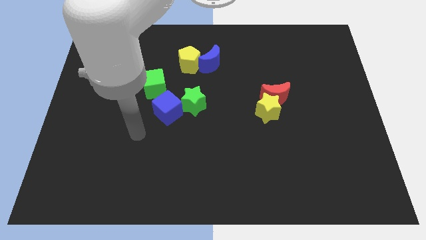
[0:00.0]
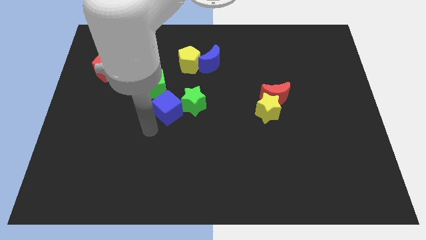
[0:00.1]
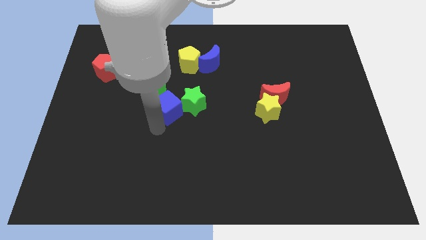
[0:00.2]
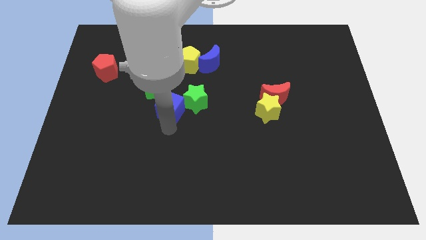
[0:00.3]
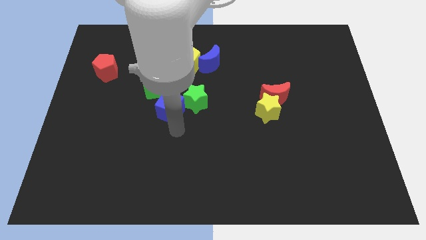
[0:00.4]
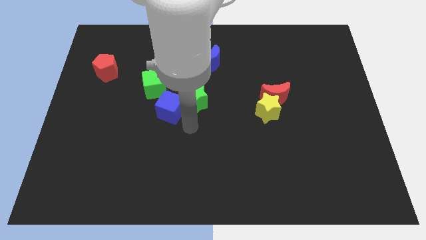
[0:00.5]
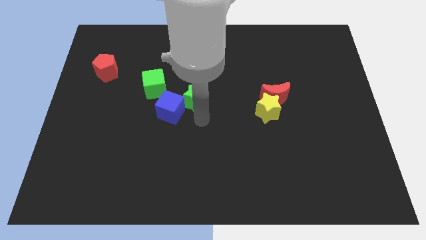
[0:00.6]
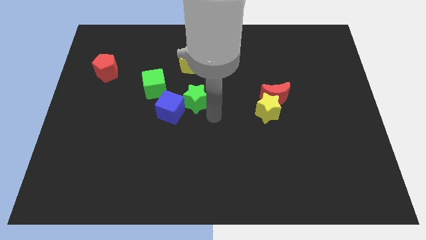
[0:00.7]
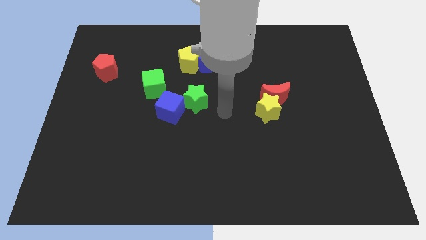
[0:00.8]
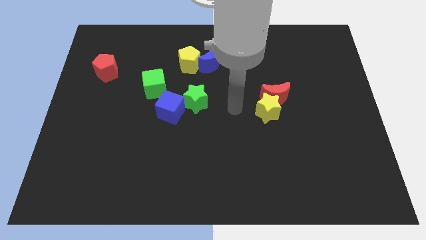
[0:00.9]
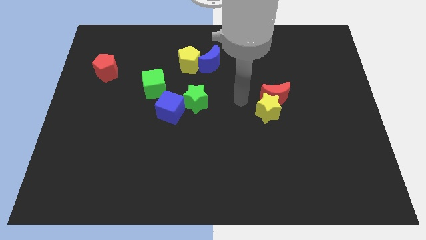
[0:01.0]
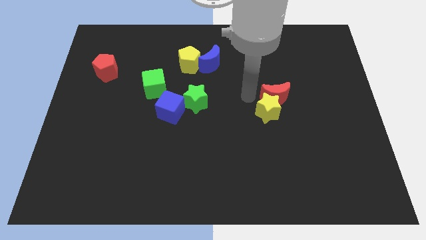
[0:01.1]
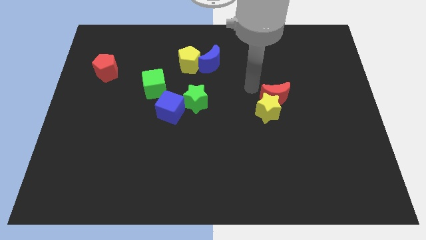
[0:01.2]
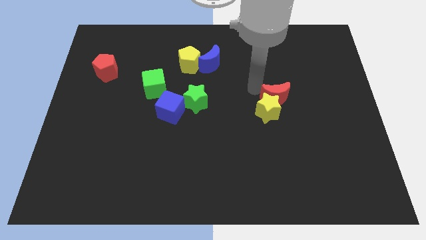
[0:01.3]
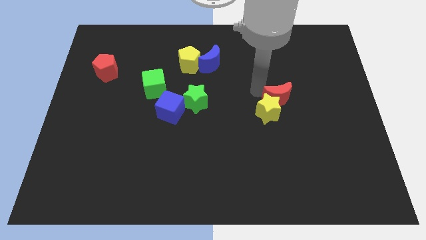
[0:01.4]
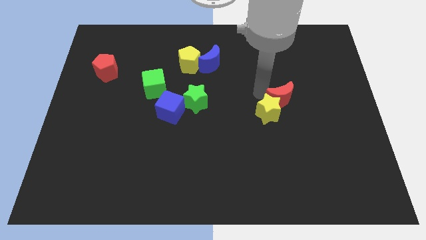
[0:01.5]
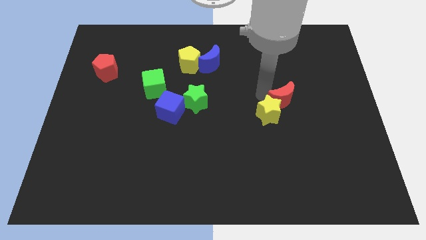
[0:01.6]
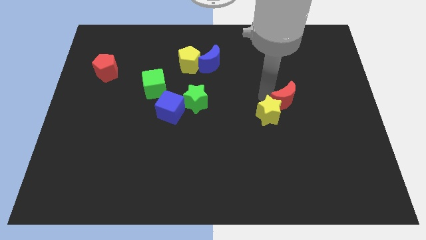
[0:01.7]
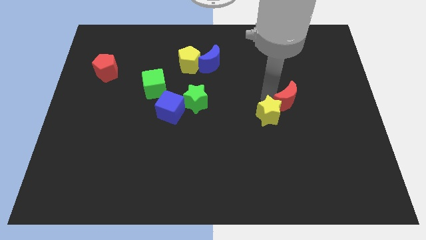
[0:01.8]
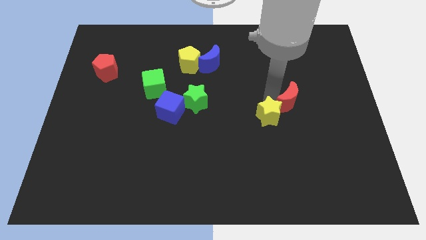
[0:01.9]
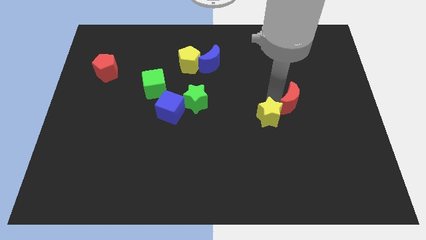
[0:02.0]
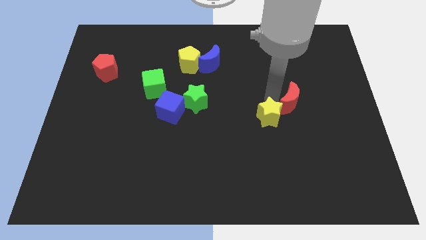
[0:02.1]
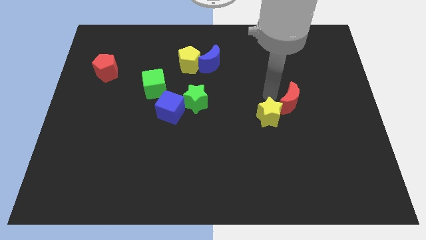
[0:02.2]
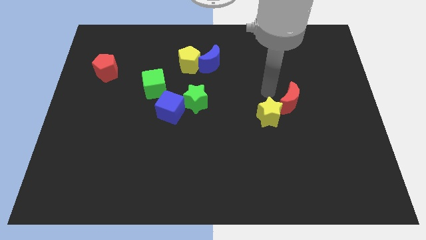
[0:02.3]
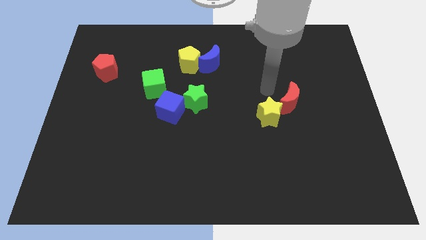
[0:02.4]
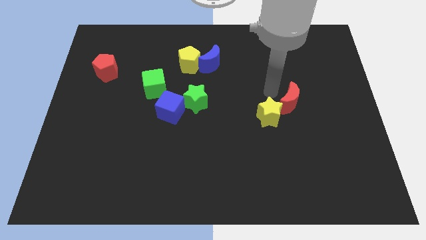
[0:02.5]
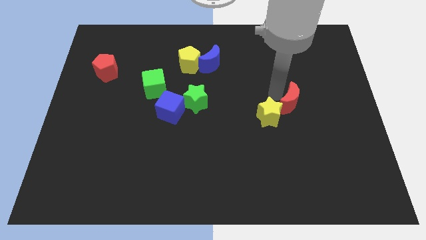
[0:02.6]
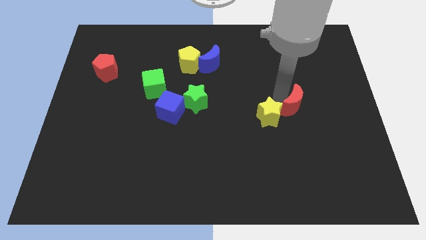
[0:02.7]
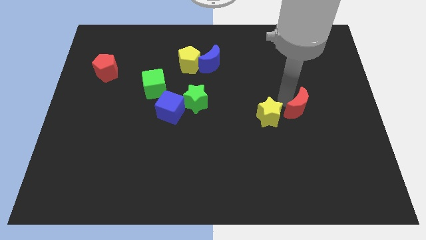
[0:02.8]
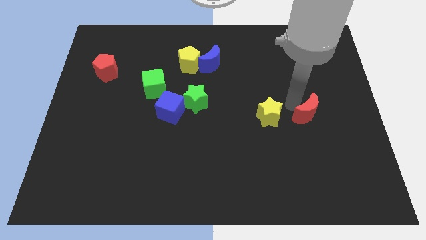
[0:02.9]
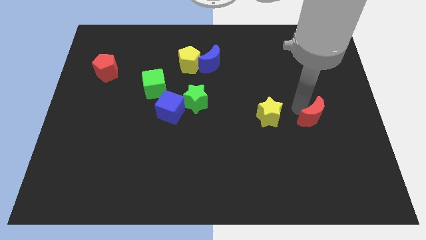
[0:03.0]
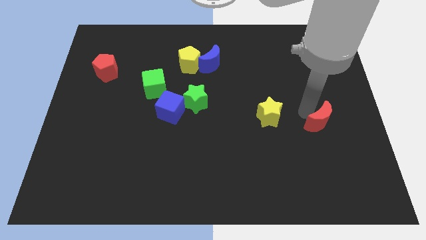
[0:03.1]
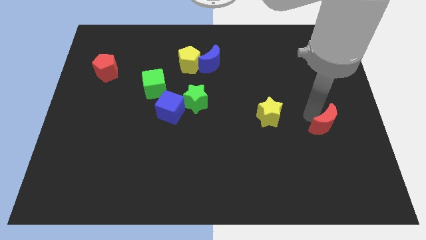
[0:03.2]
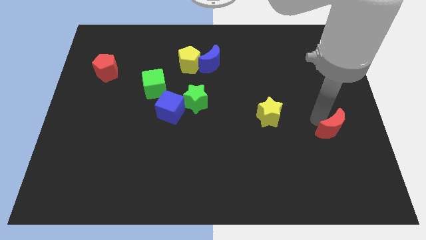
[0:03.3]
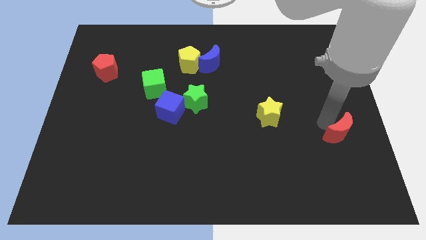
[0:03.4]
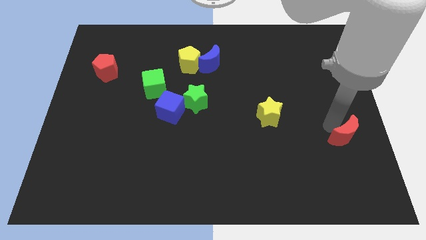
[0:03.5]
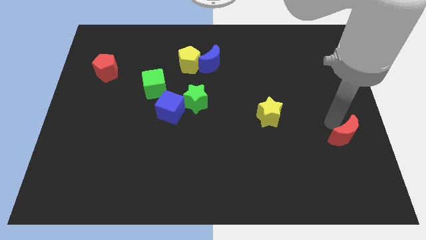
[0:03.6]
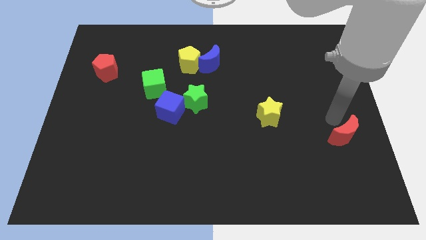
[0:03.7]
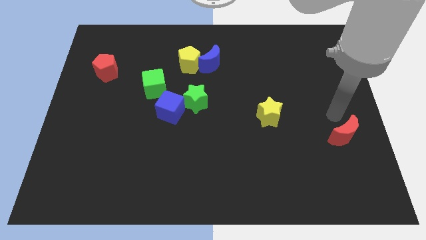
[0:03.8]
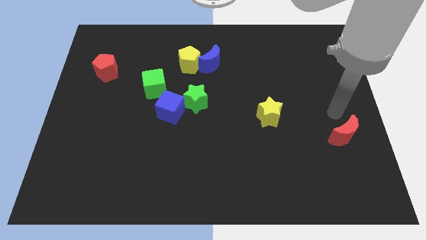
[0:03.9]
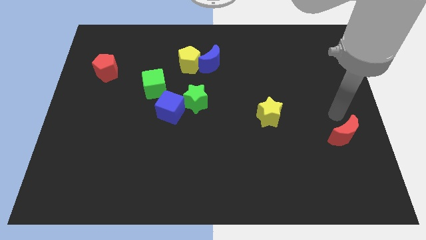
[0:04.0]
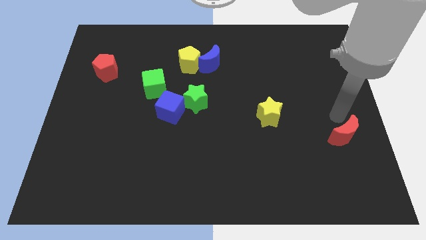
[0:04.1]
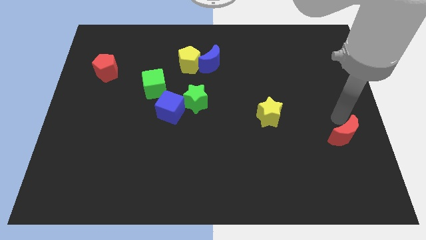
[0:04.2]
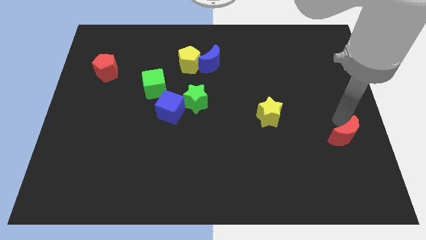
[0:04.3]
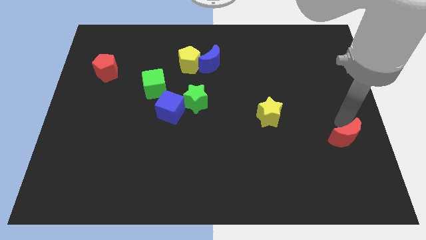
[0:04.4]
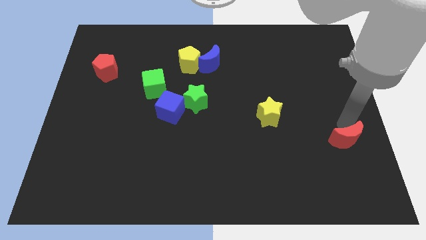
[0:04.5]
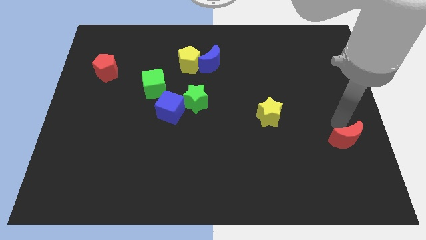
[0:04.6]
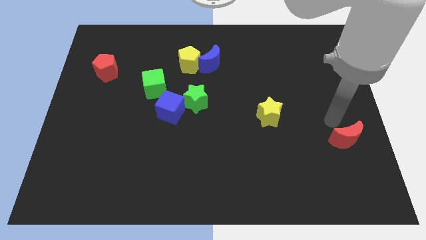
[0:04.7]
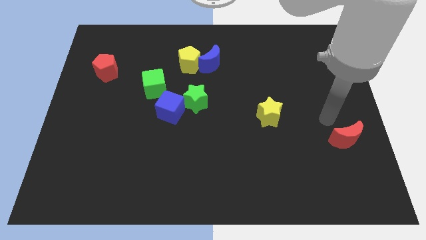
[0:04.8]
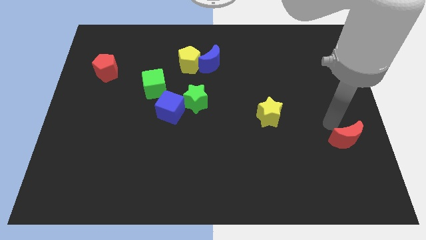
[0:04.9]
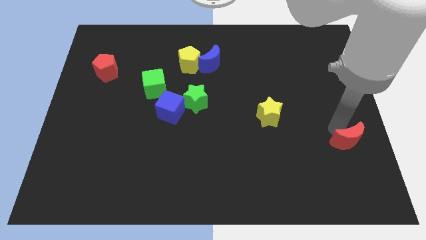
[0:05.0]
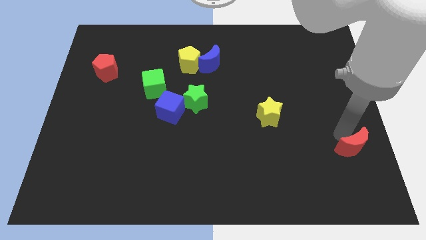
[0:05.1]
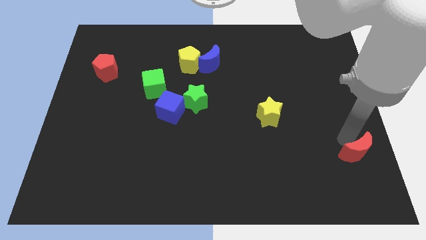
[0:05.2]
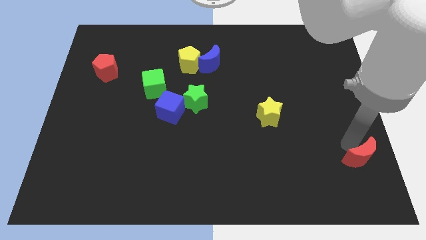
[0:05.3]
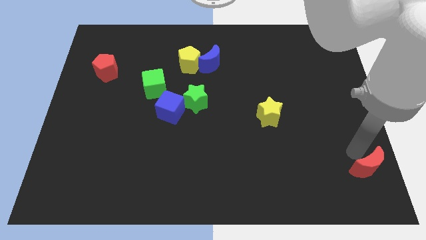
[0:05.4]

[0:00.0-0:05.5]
slide the red moon to the lower right corner
